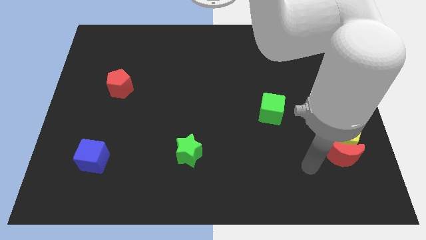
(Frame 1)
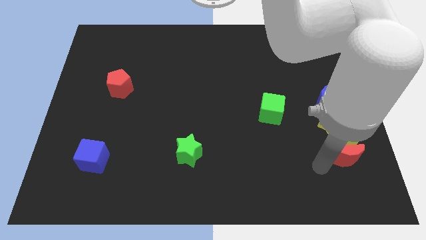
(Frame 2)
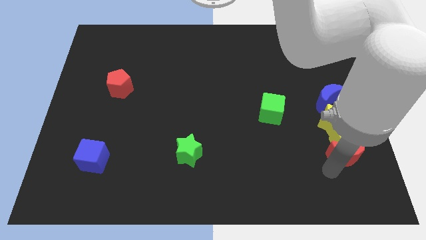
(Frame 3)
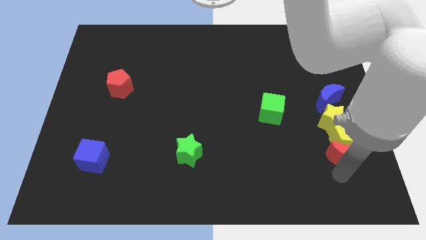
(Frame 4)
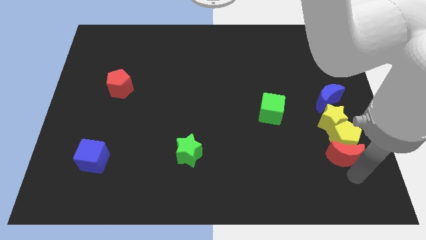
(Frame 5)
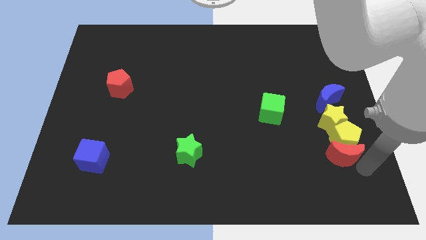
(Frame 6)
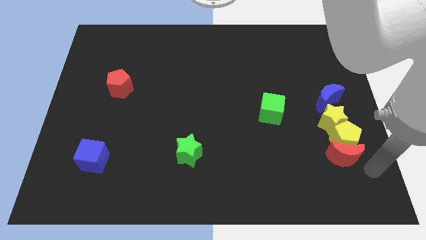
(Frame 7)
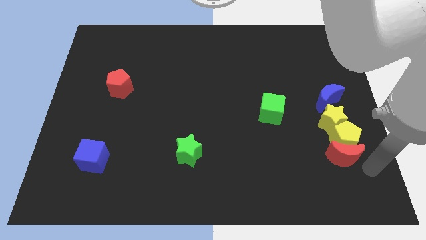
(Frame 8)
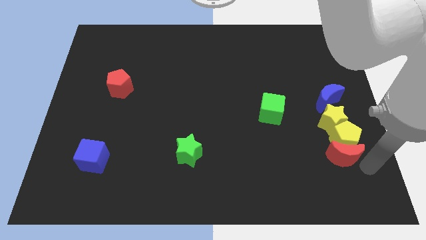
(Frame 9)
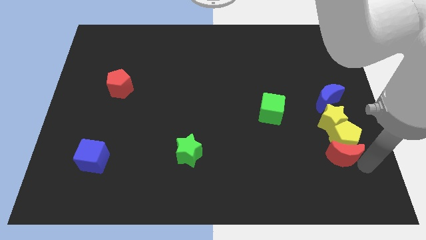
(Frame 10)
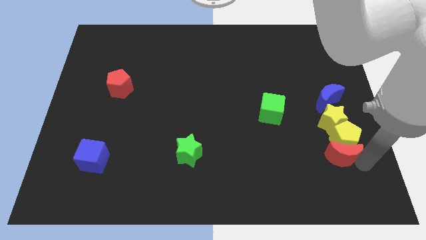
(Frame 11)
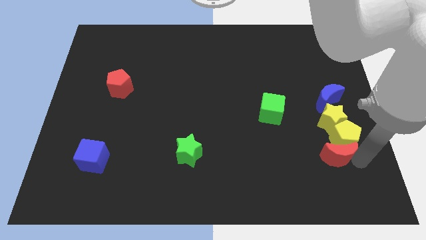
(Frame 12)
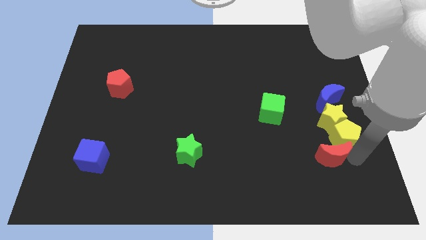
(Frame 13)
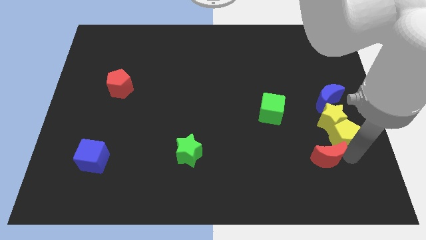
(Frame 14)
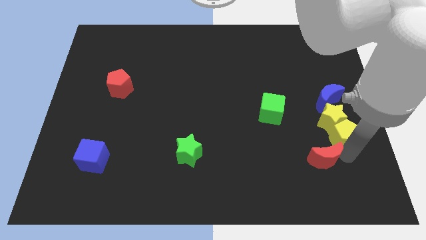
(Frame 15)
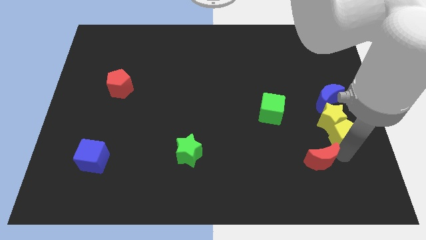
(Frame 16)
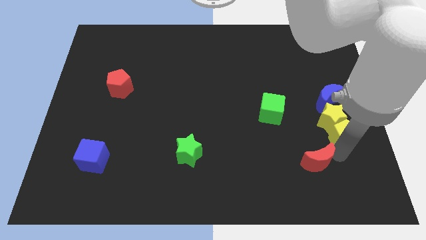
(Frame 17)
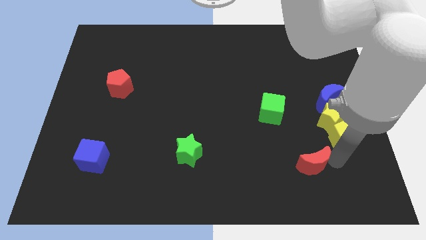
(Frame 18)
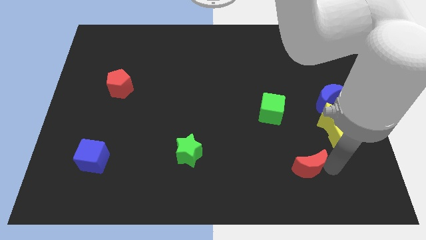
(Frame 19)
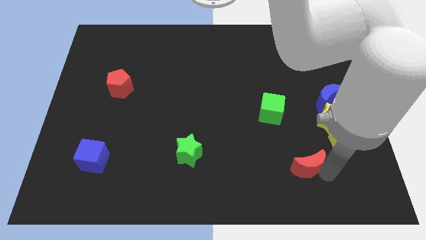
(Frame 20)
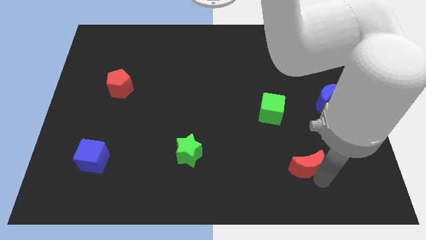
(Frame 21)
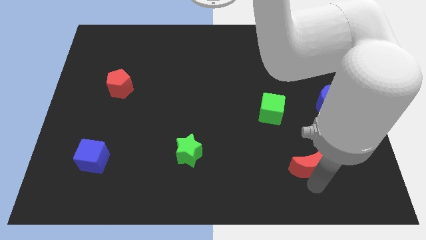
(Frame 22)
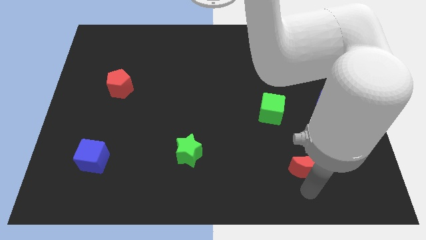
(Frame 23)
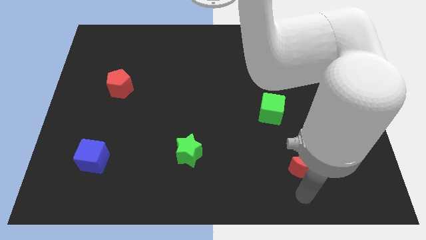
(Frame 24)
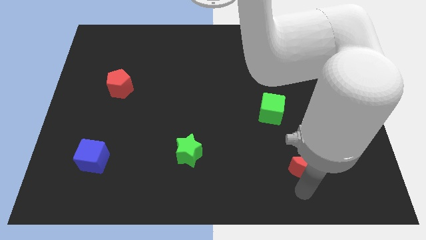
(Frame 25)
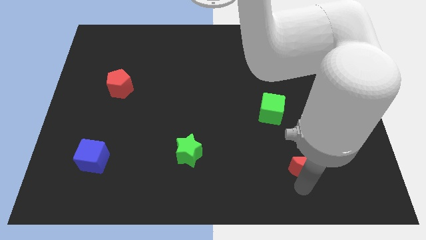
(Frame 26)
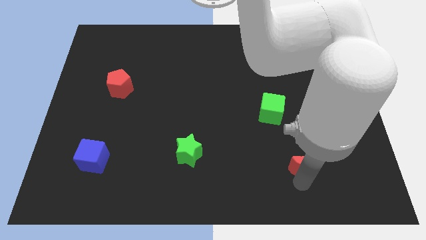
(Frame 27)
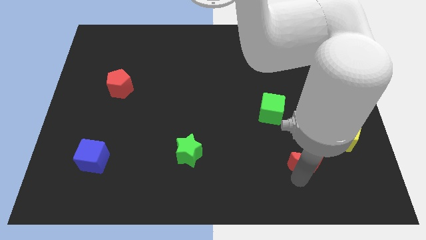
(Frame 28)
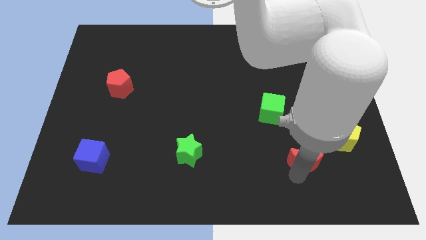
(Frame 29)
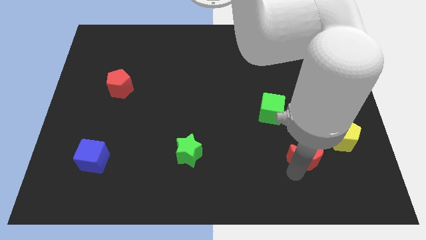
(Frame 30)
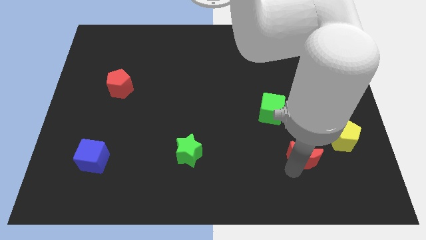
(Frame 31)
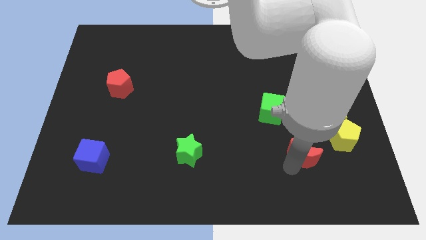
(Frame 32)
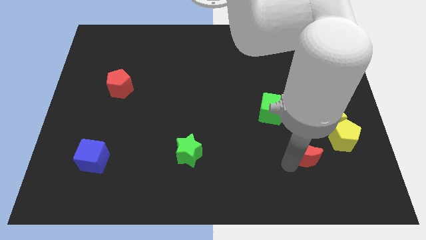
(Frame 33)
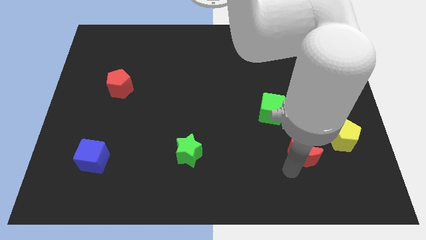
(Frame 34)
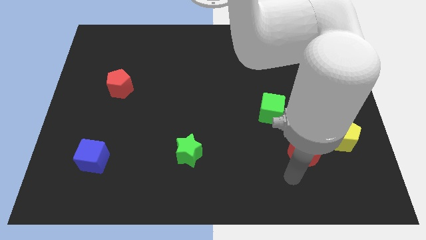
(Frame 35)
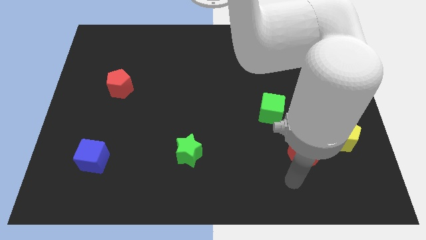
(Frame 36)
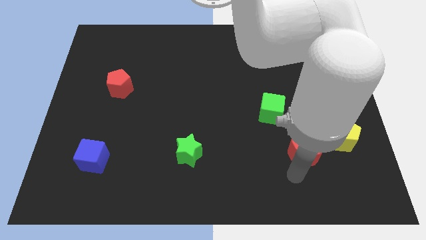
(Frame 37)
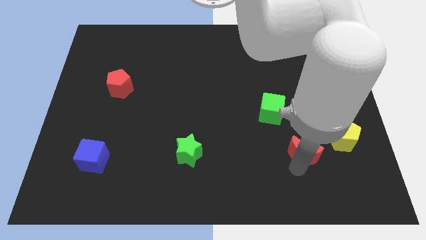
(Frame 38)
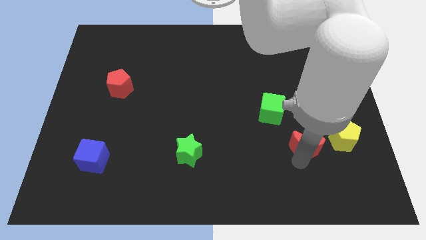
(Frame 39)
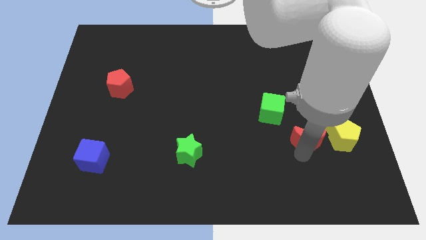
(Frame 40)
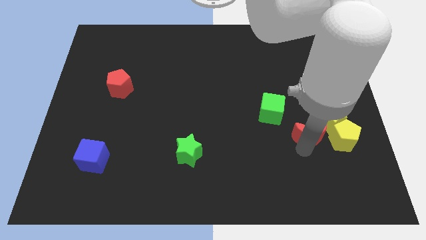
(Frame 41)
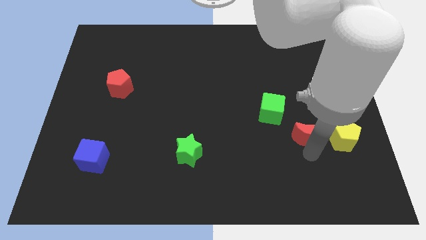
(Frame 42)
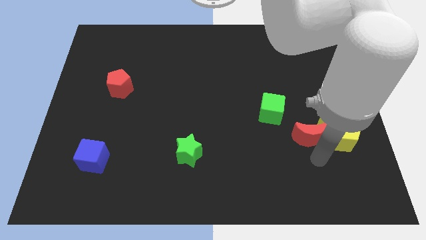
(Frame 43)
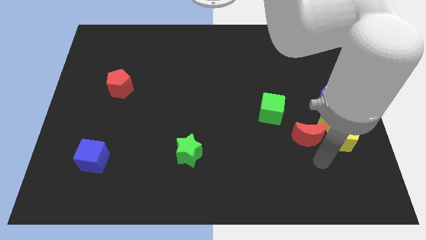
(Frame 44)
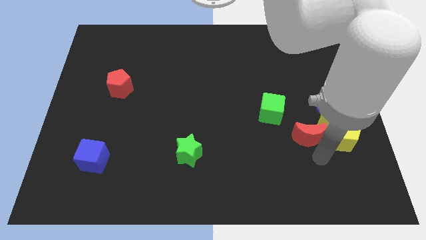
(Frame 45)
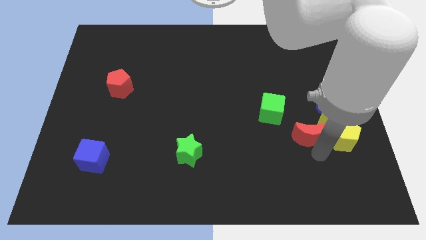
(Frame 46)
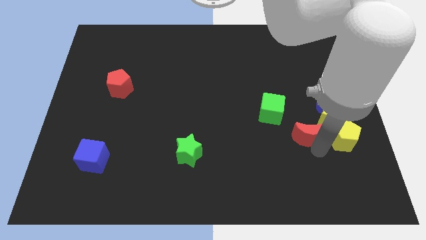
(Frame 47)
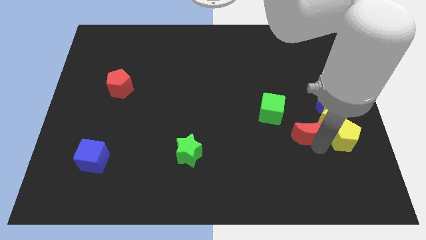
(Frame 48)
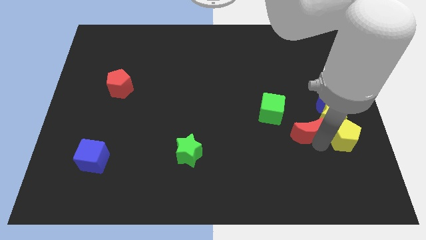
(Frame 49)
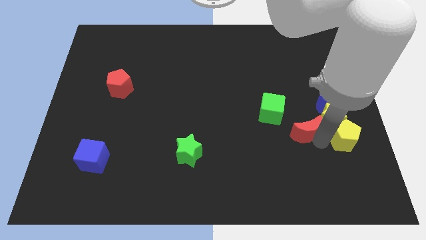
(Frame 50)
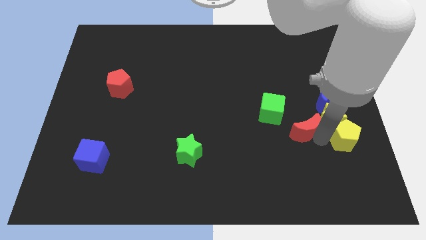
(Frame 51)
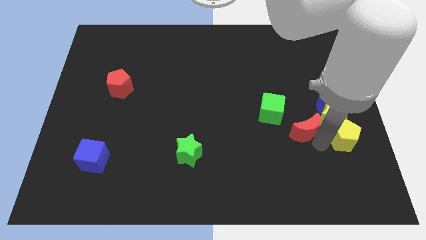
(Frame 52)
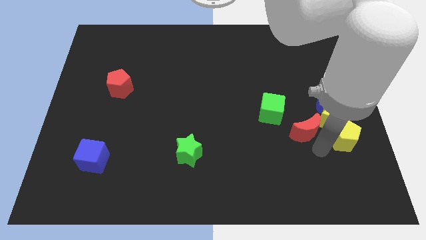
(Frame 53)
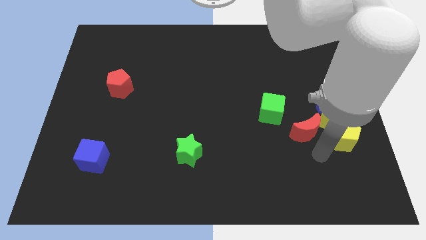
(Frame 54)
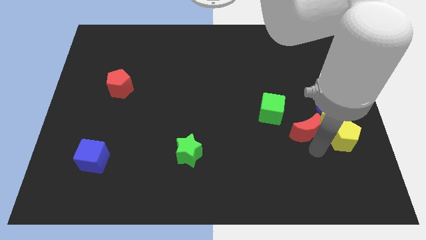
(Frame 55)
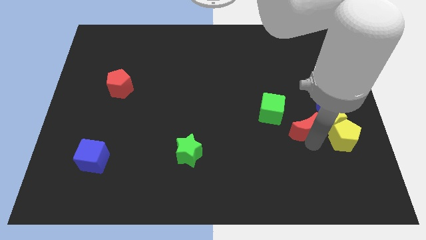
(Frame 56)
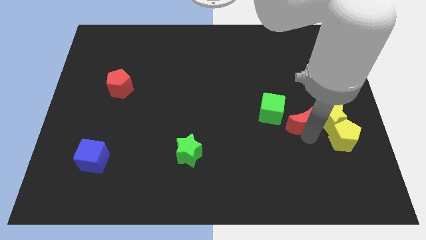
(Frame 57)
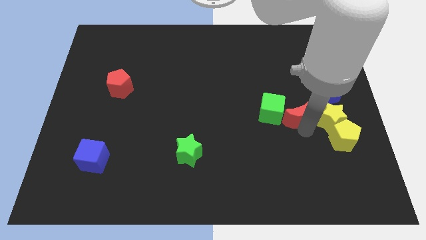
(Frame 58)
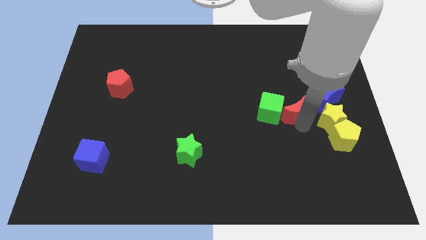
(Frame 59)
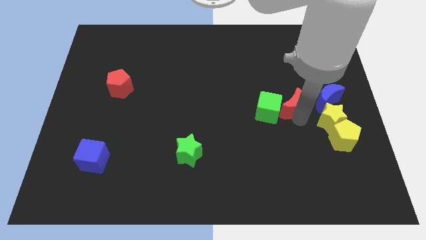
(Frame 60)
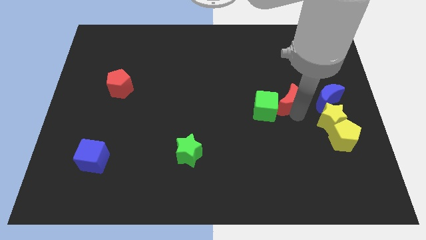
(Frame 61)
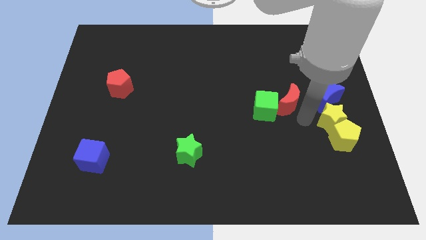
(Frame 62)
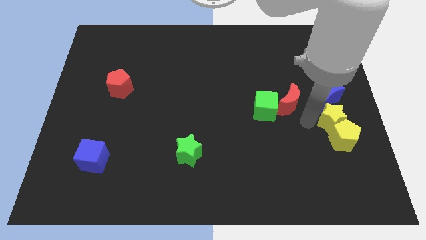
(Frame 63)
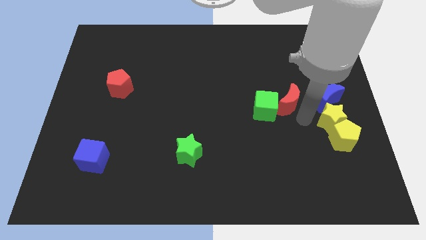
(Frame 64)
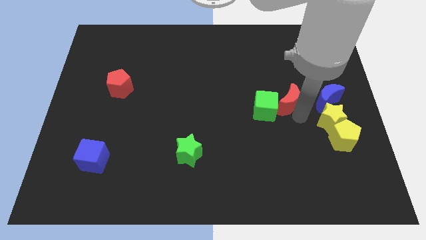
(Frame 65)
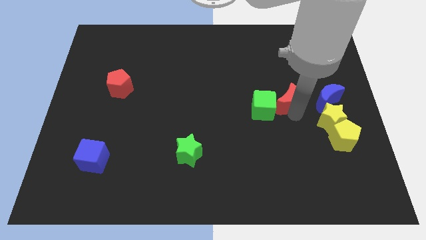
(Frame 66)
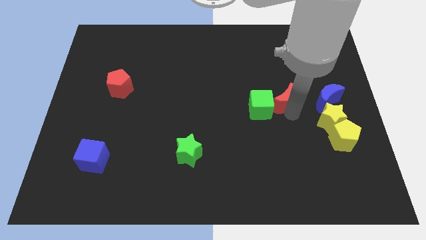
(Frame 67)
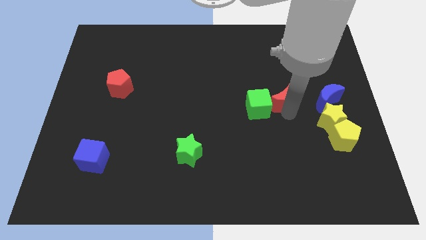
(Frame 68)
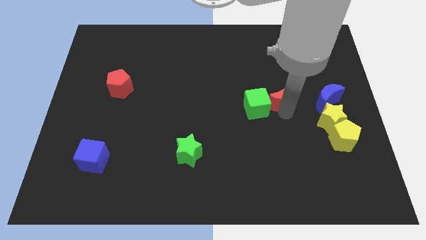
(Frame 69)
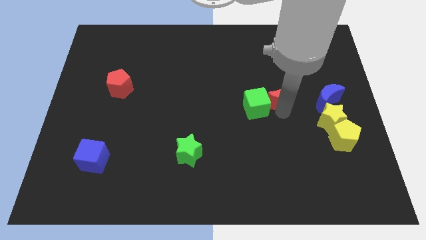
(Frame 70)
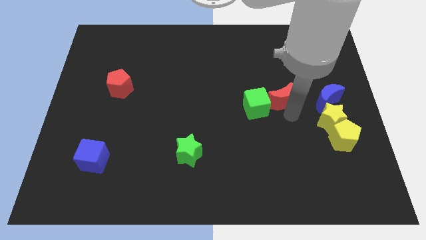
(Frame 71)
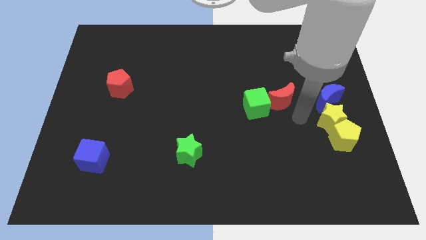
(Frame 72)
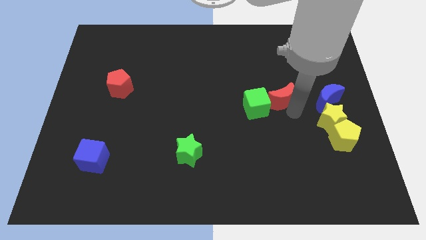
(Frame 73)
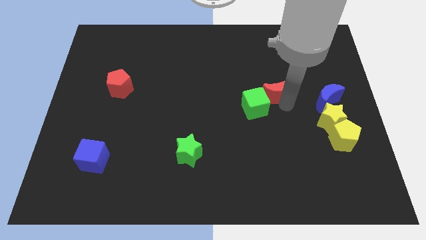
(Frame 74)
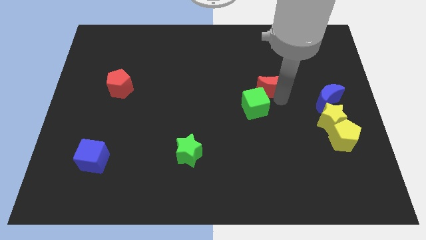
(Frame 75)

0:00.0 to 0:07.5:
push the red moon above the green cube
